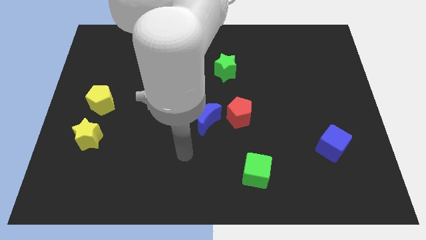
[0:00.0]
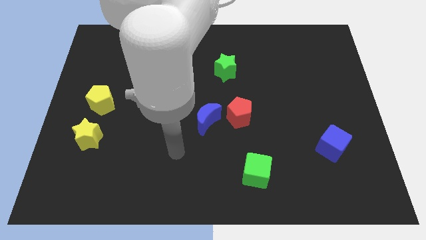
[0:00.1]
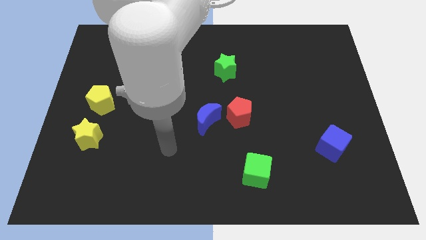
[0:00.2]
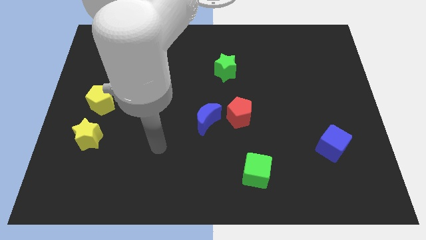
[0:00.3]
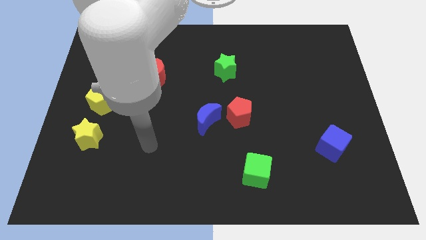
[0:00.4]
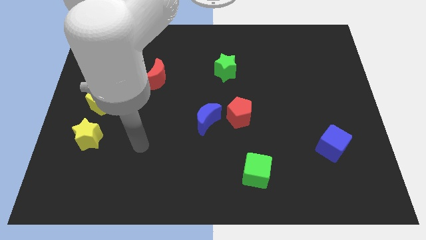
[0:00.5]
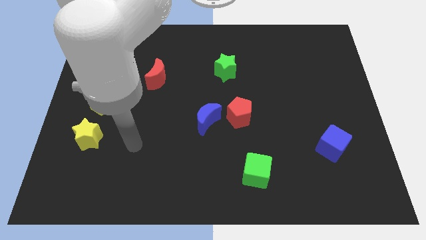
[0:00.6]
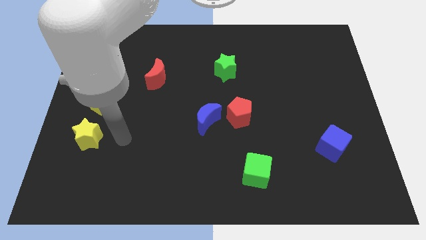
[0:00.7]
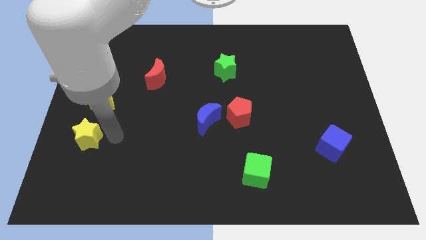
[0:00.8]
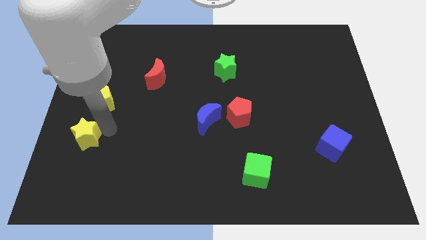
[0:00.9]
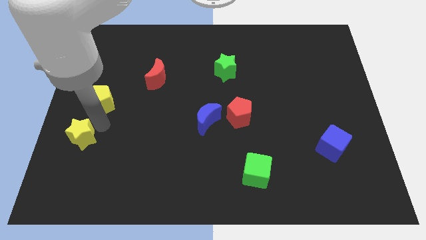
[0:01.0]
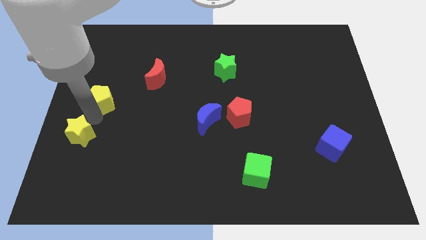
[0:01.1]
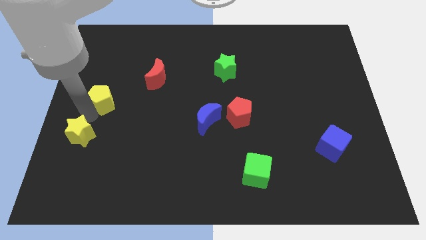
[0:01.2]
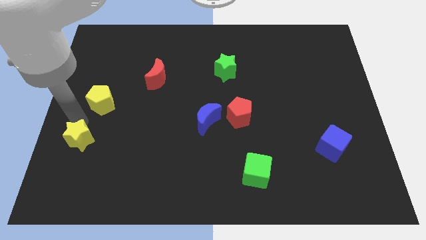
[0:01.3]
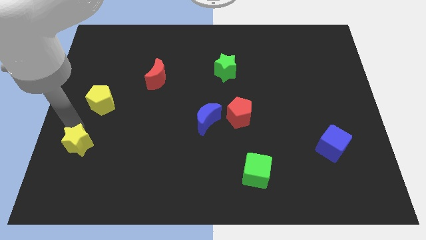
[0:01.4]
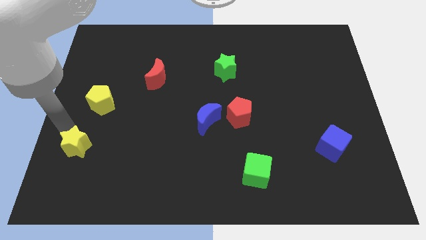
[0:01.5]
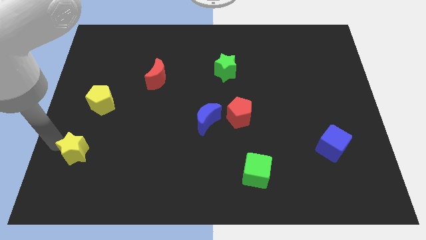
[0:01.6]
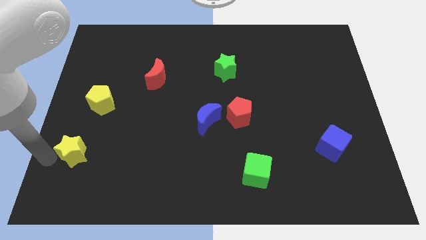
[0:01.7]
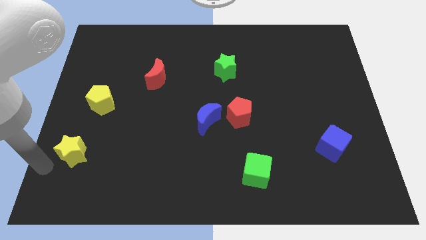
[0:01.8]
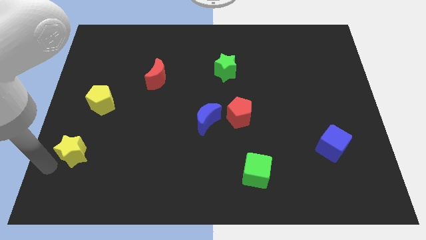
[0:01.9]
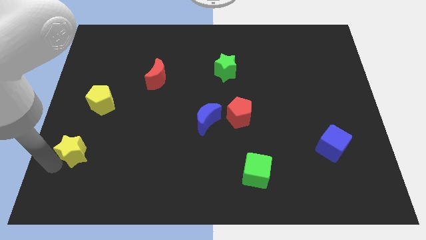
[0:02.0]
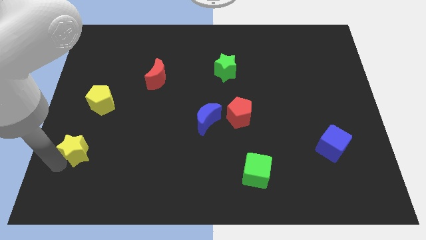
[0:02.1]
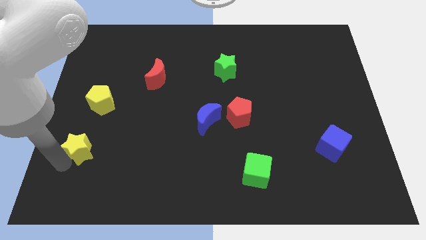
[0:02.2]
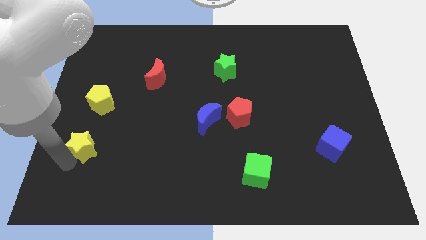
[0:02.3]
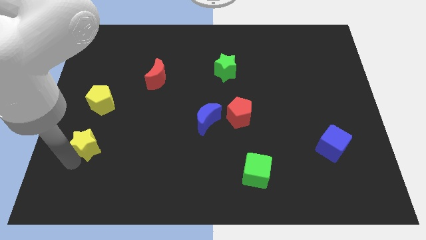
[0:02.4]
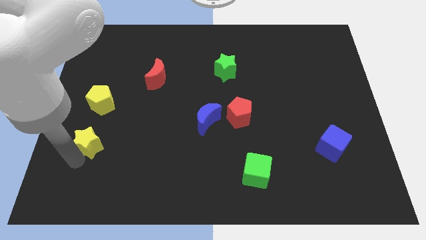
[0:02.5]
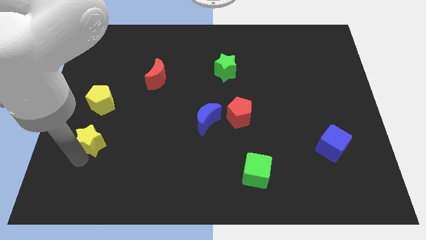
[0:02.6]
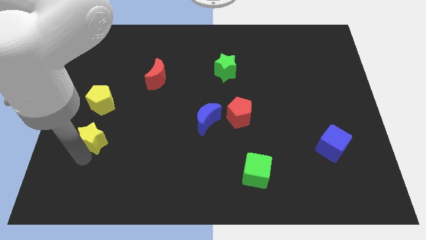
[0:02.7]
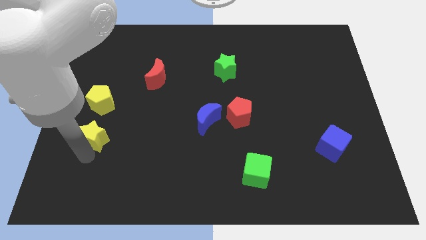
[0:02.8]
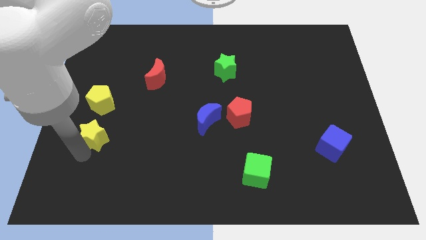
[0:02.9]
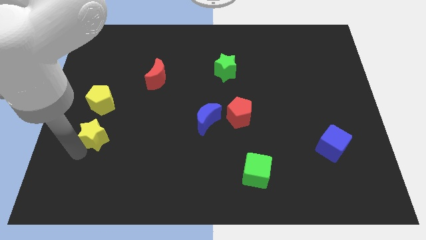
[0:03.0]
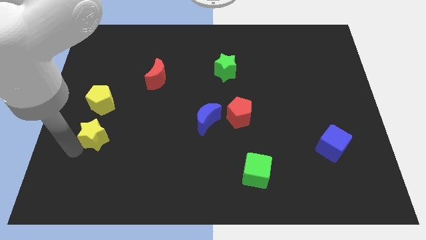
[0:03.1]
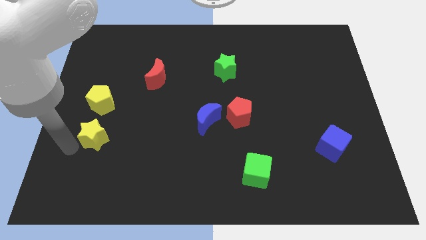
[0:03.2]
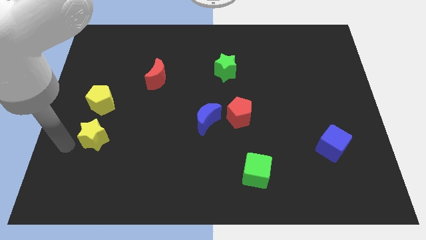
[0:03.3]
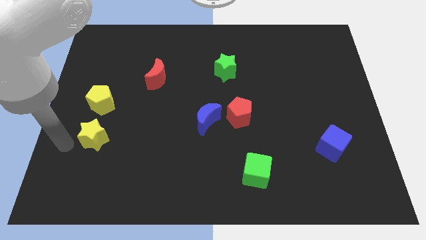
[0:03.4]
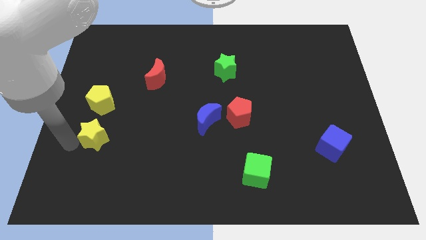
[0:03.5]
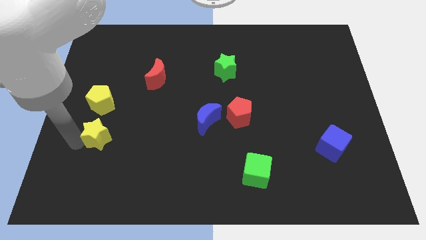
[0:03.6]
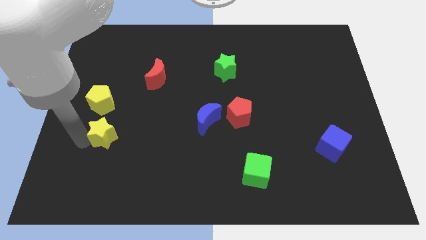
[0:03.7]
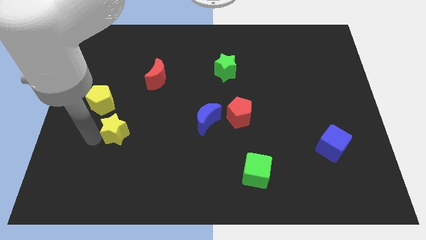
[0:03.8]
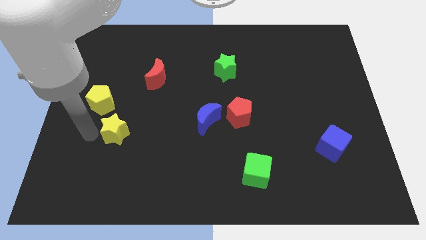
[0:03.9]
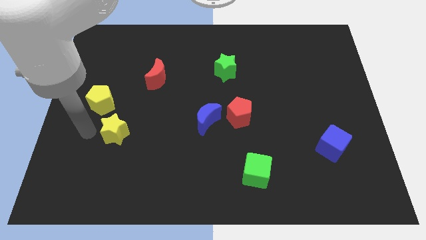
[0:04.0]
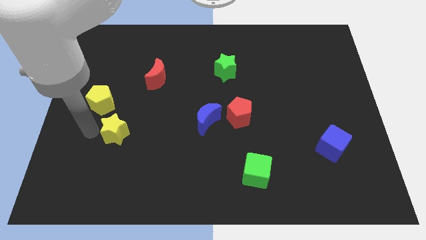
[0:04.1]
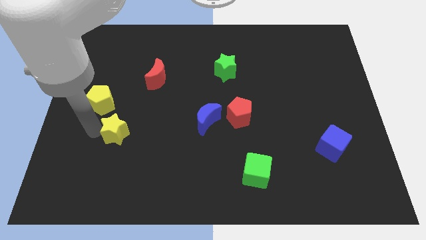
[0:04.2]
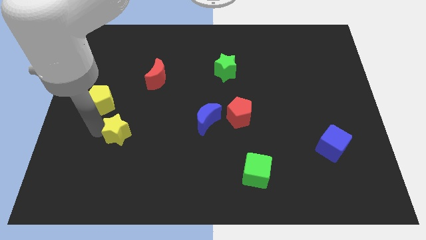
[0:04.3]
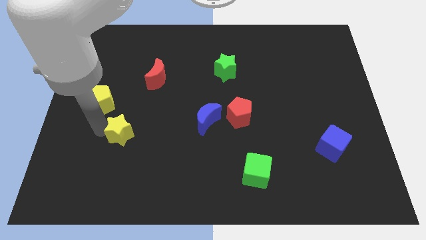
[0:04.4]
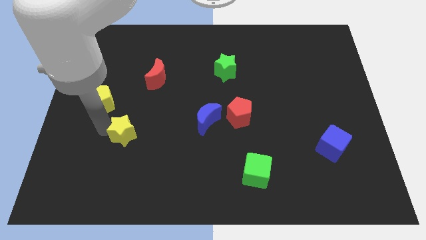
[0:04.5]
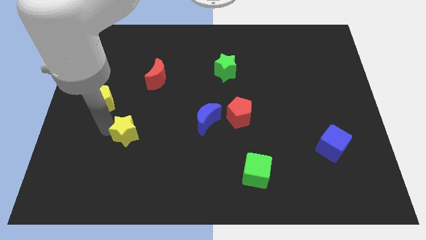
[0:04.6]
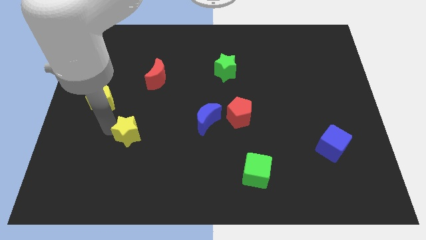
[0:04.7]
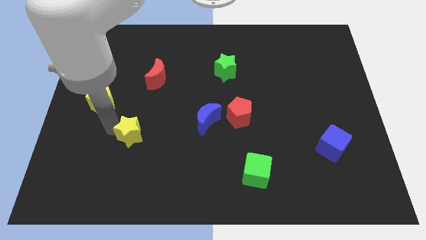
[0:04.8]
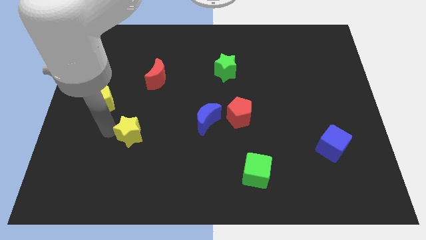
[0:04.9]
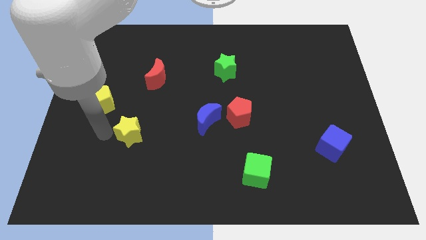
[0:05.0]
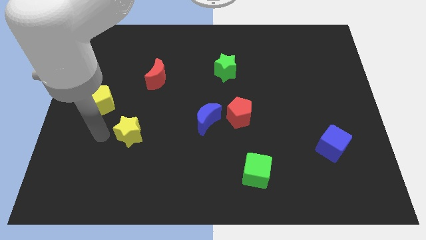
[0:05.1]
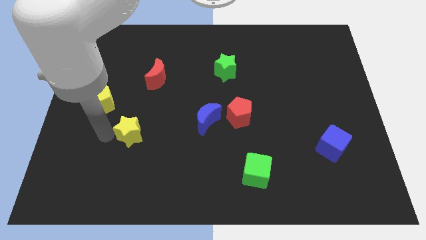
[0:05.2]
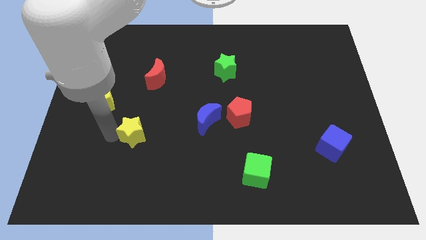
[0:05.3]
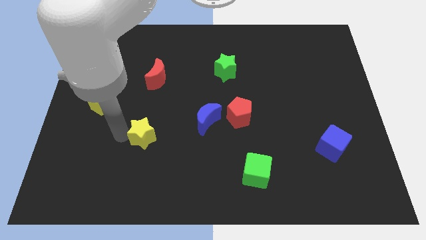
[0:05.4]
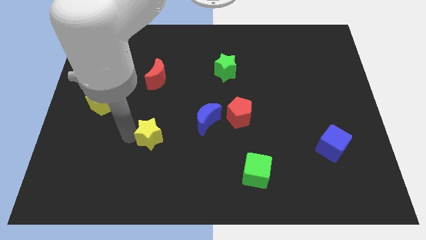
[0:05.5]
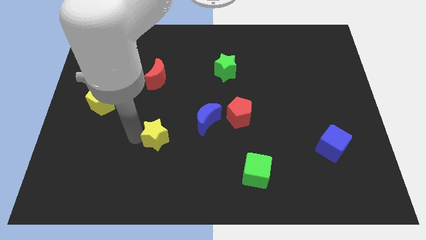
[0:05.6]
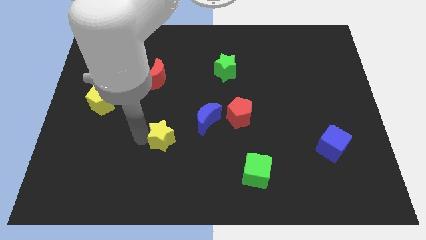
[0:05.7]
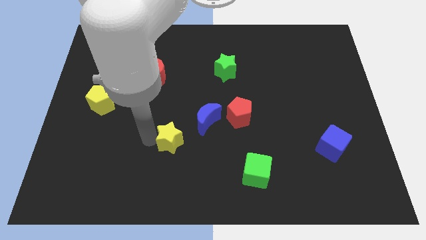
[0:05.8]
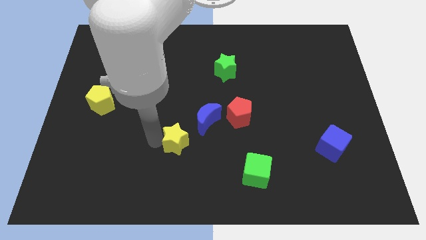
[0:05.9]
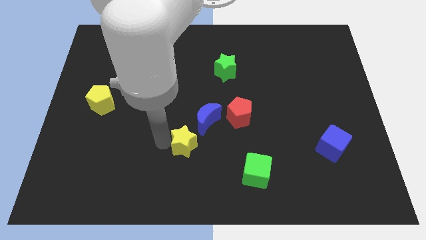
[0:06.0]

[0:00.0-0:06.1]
move the yellow star right

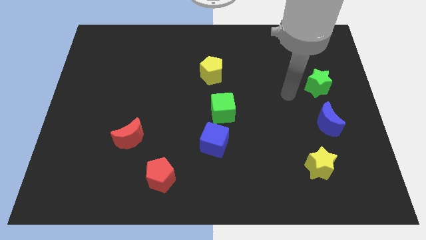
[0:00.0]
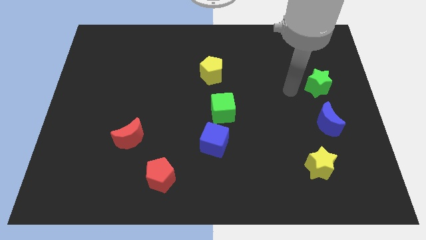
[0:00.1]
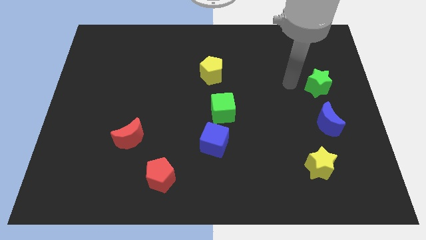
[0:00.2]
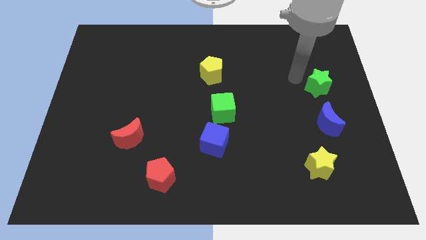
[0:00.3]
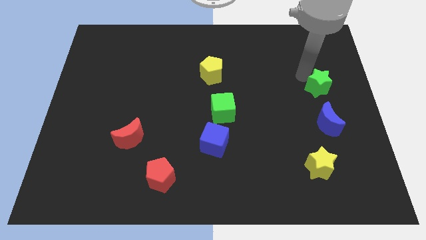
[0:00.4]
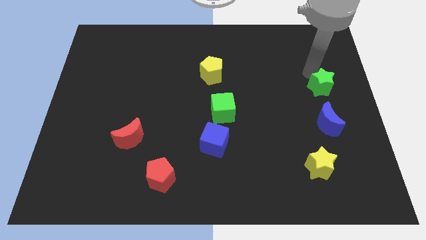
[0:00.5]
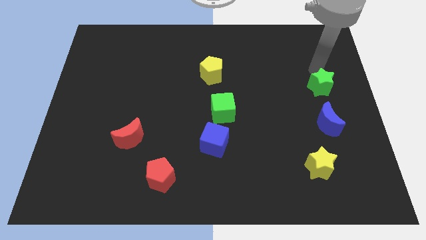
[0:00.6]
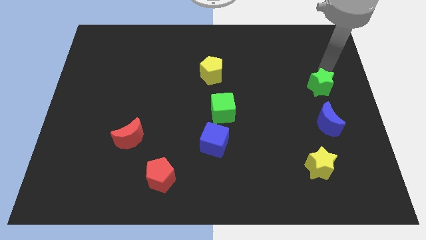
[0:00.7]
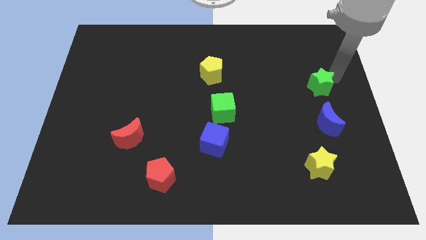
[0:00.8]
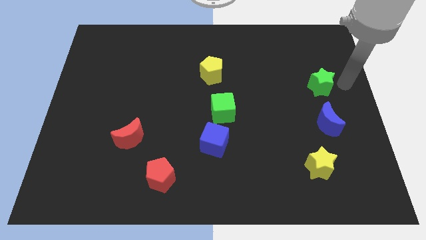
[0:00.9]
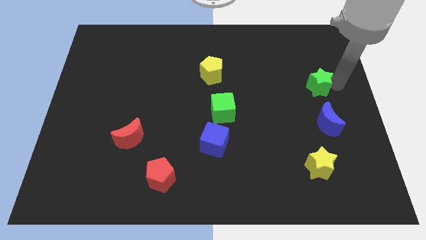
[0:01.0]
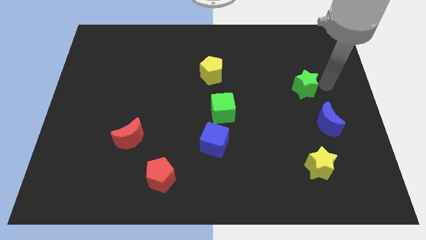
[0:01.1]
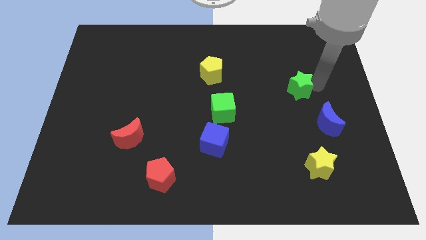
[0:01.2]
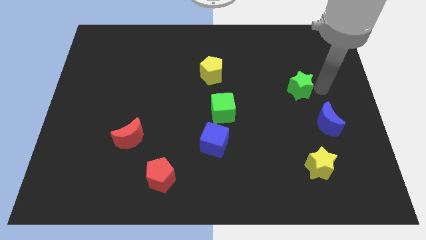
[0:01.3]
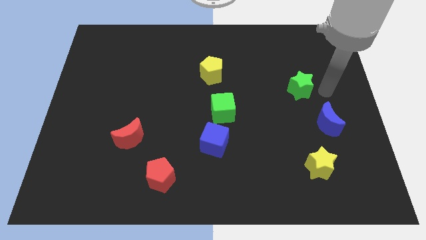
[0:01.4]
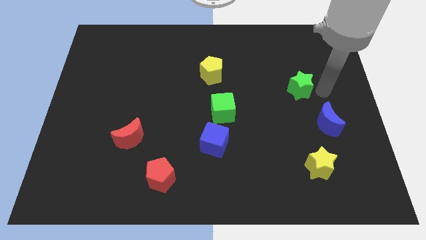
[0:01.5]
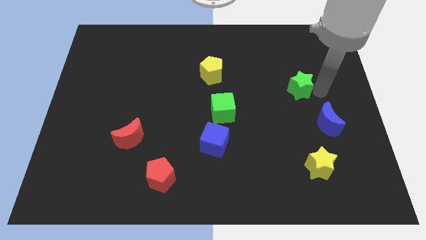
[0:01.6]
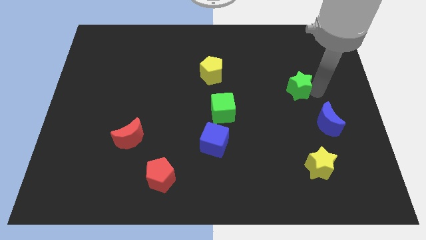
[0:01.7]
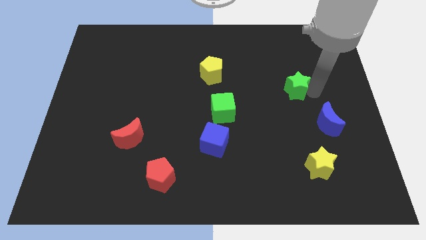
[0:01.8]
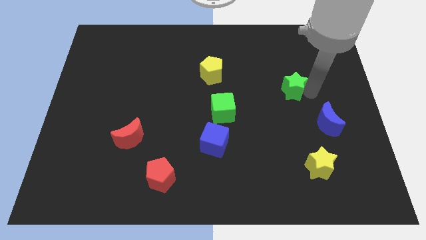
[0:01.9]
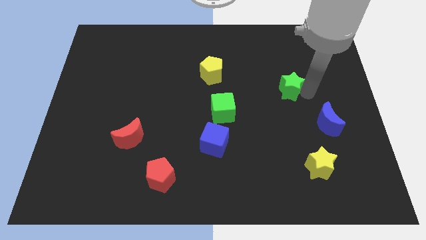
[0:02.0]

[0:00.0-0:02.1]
move the green star a little to the left
